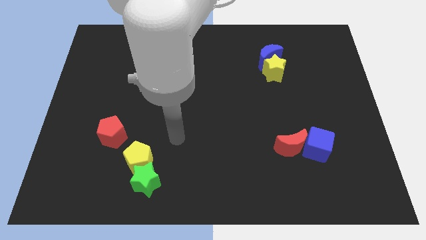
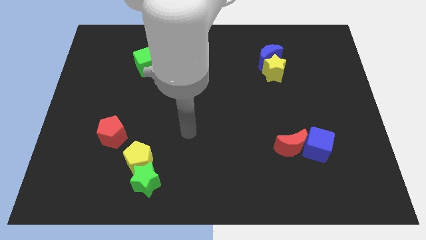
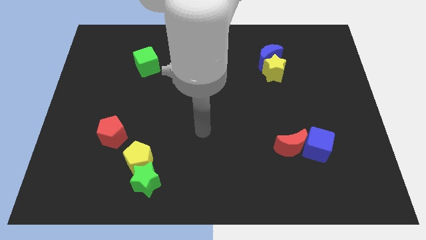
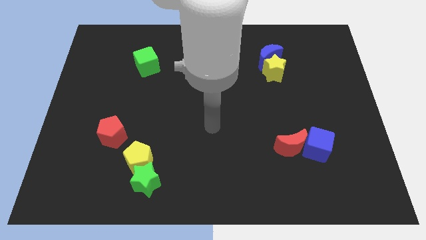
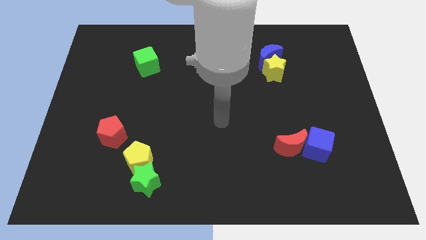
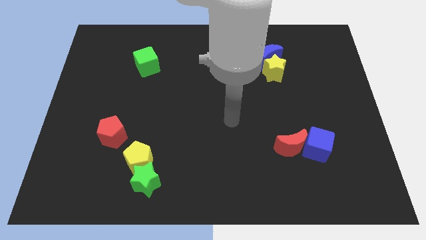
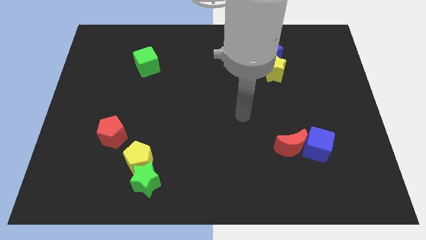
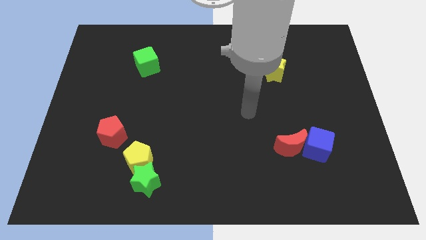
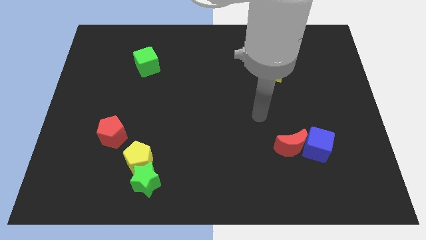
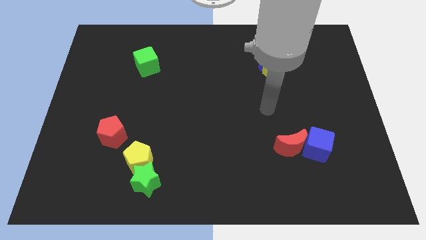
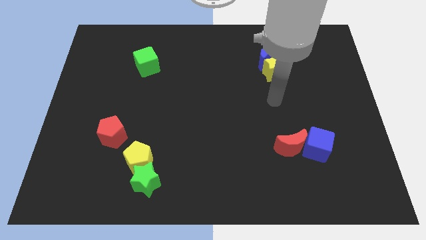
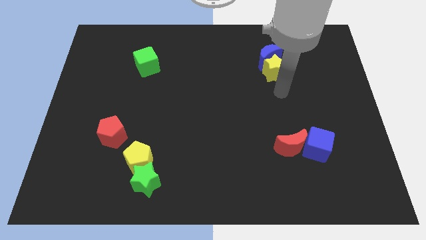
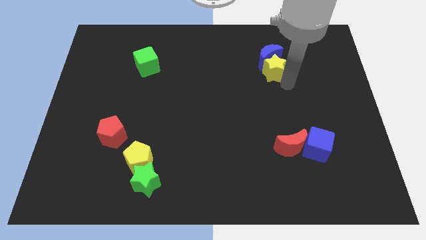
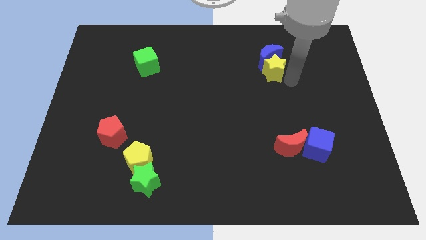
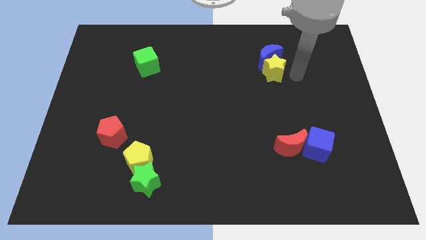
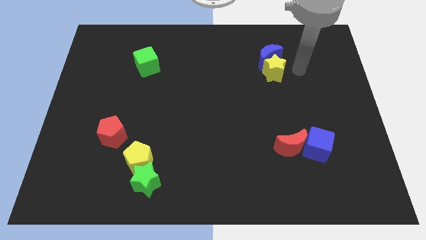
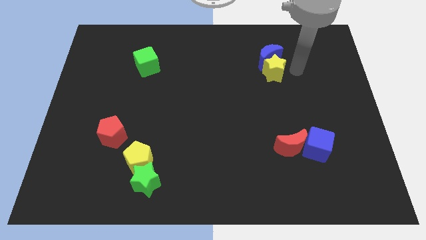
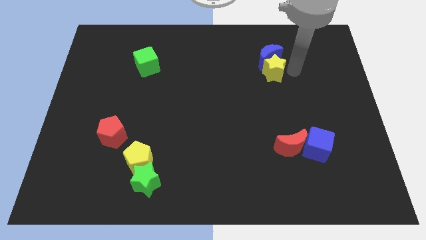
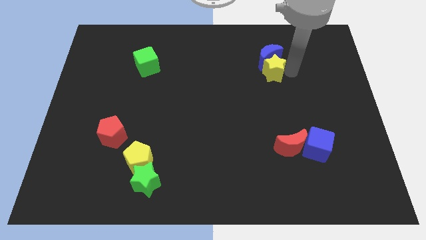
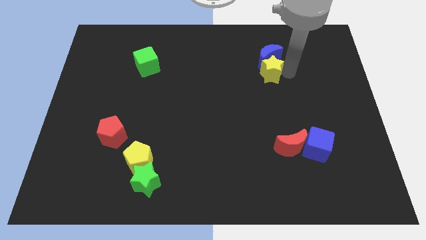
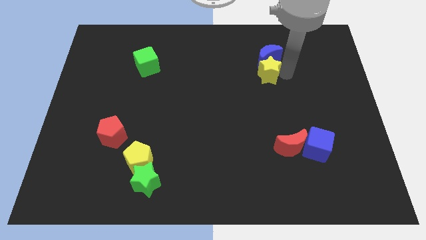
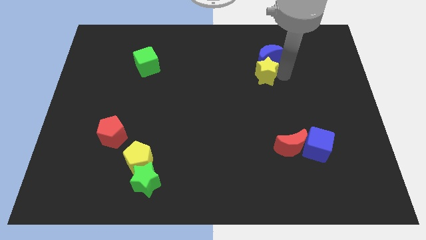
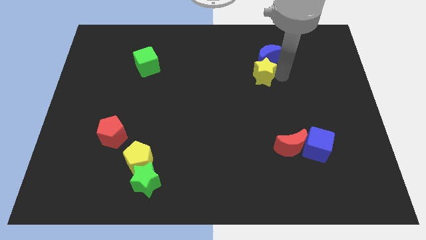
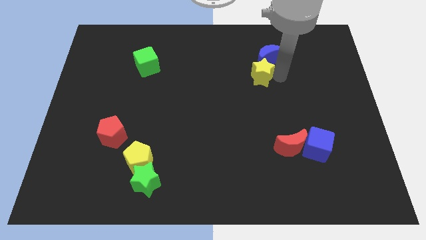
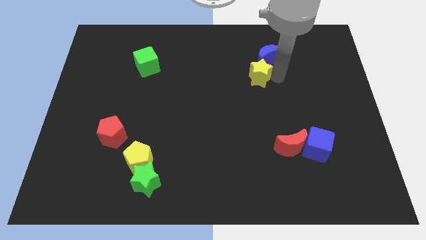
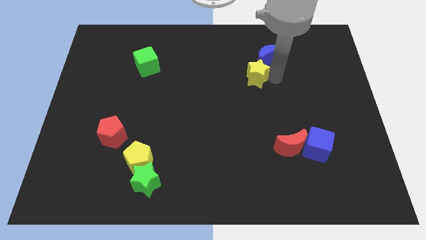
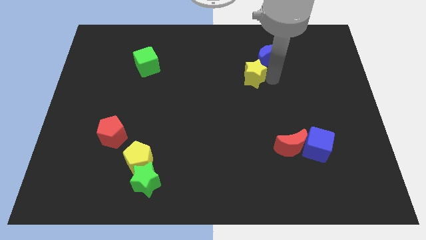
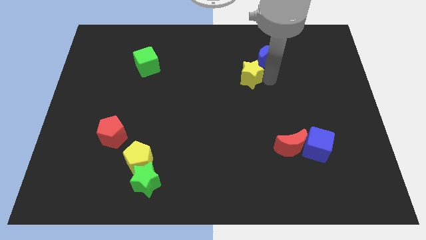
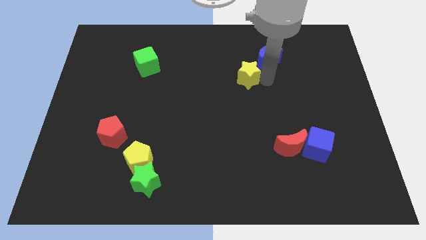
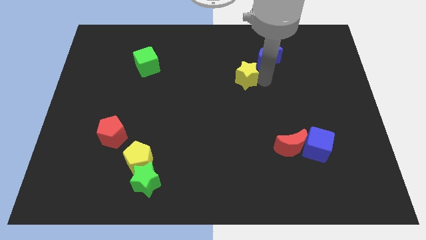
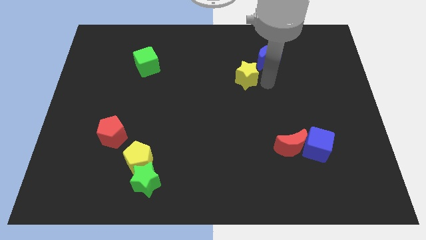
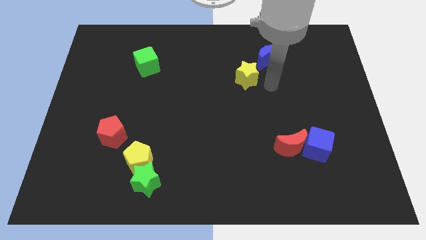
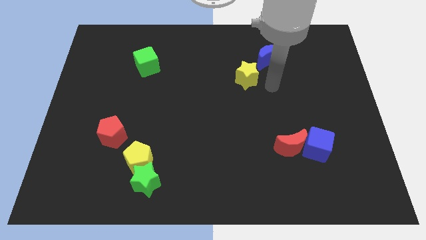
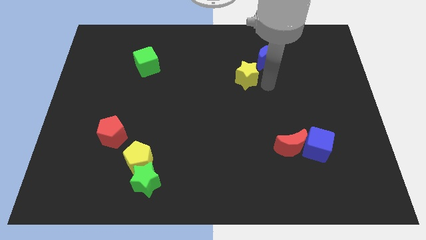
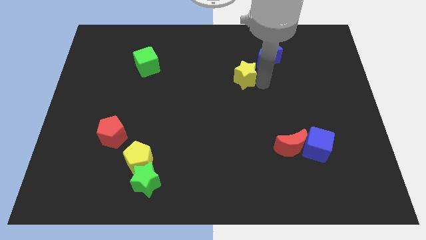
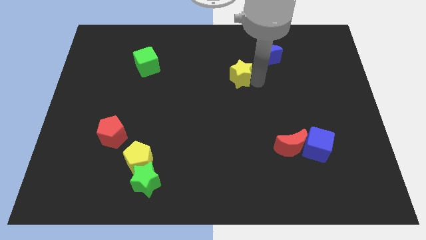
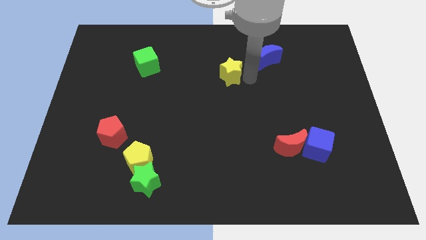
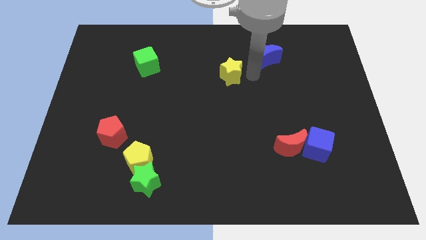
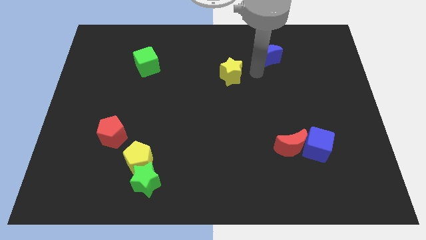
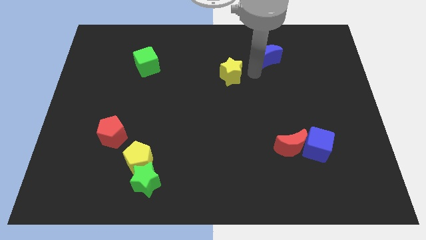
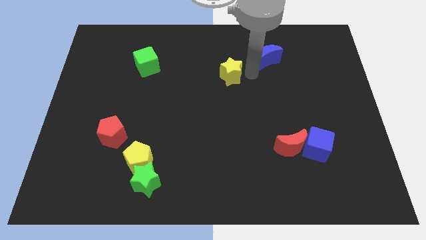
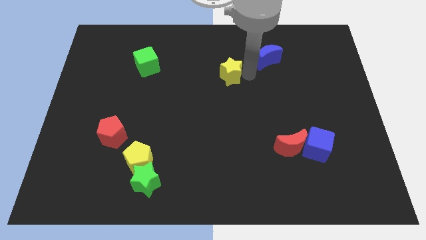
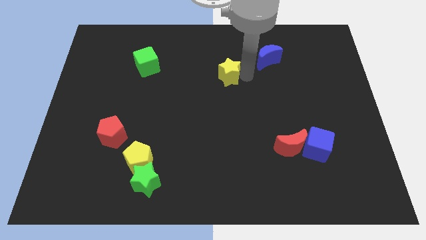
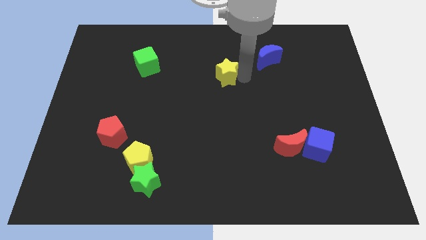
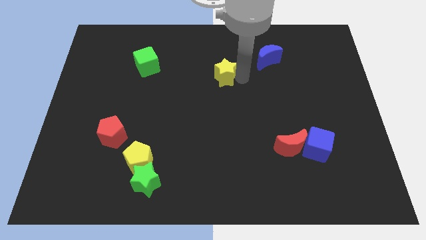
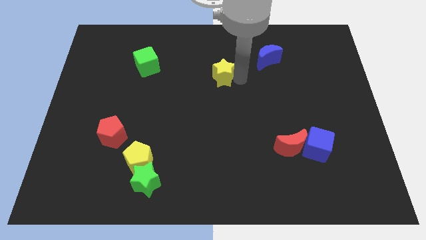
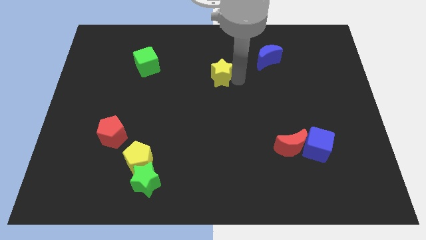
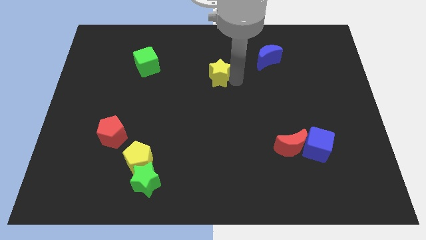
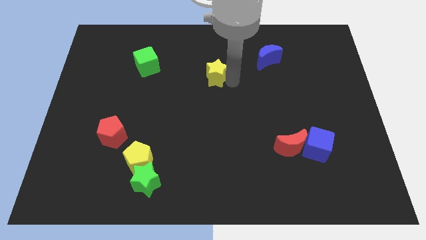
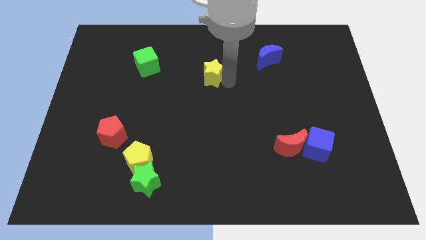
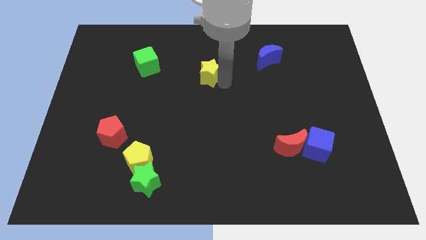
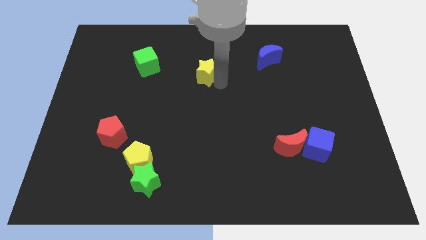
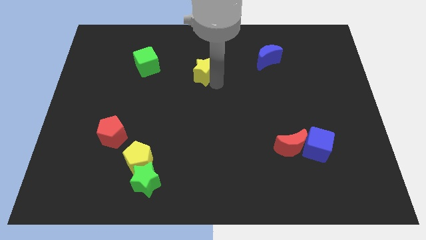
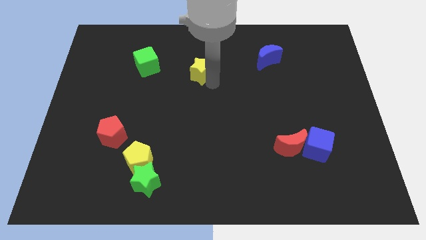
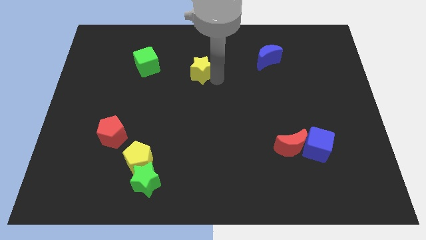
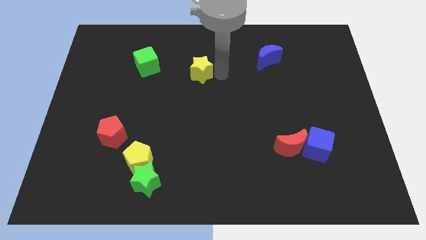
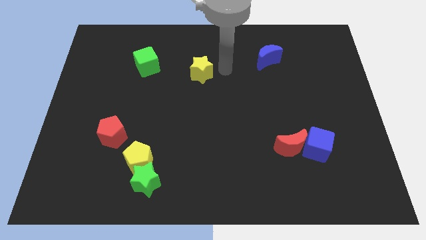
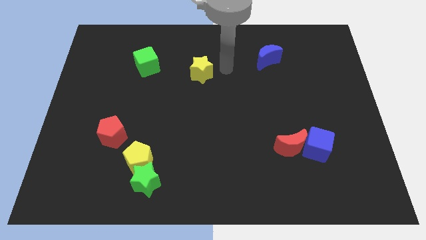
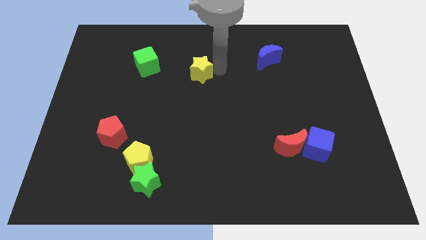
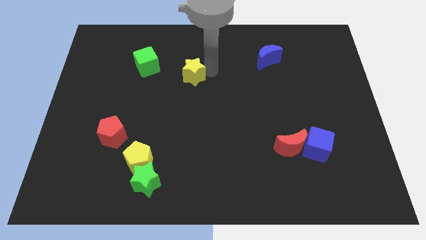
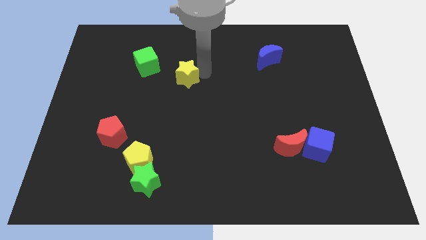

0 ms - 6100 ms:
move the yellow star to the bottom right of the green cube

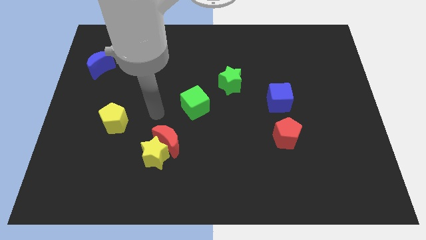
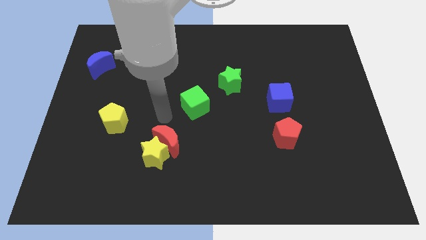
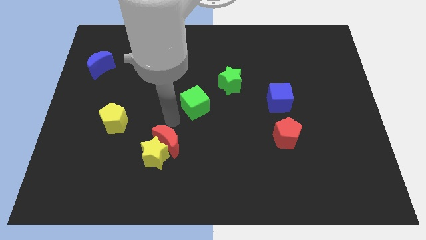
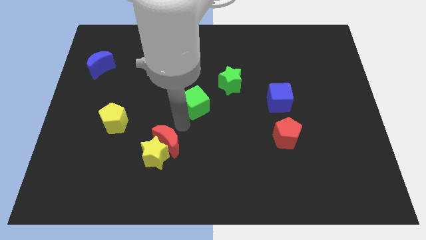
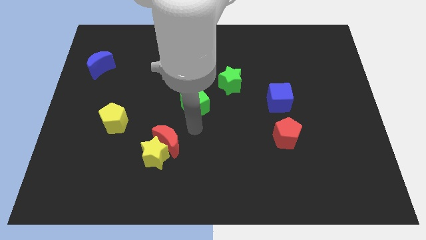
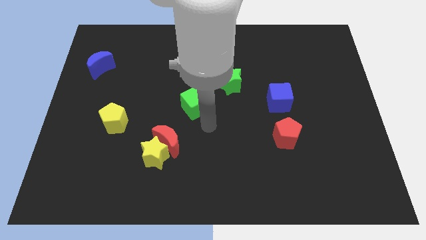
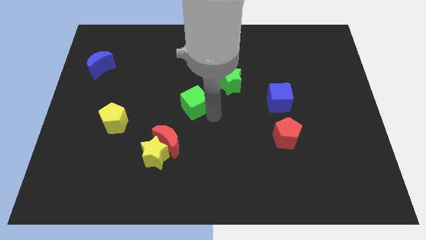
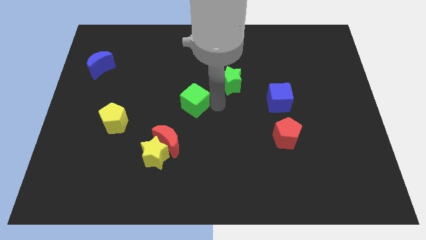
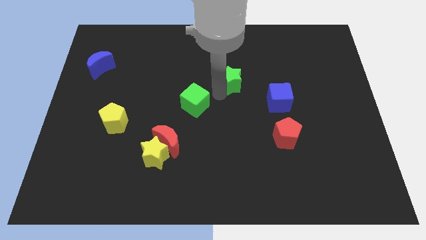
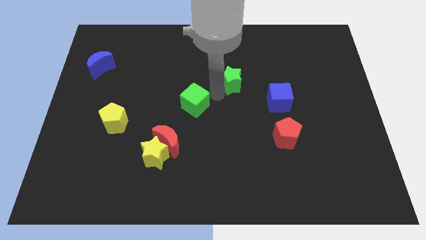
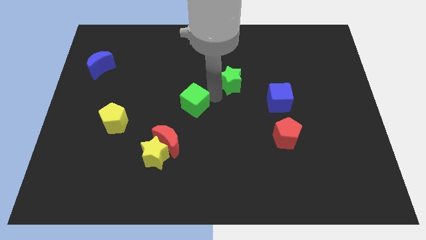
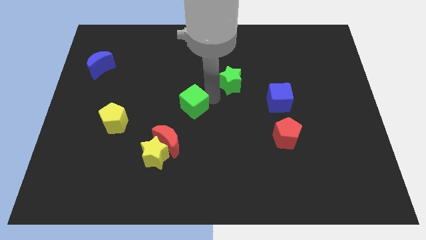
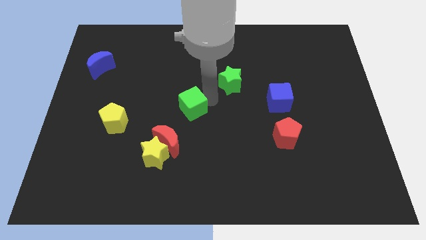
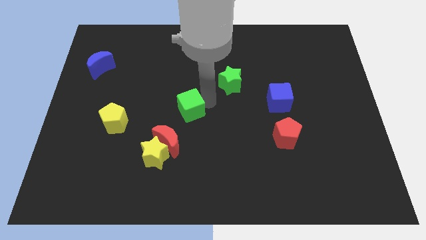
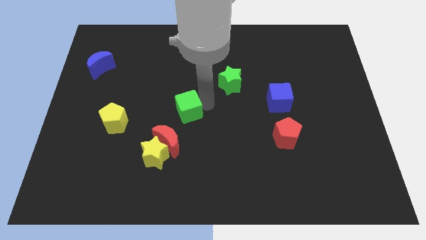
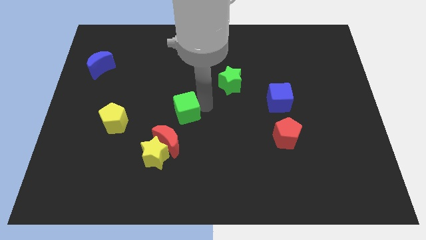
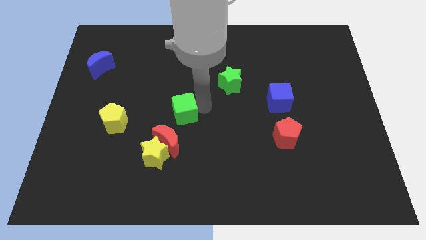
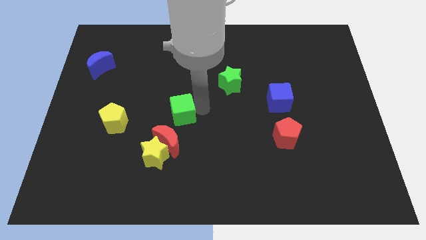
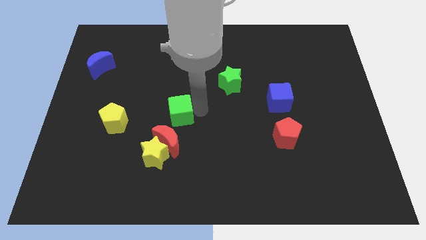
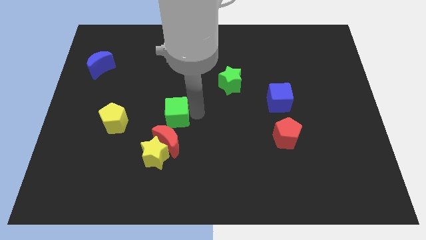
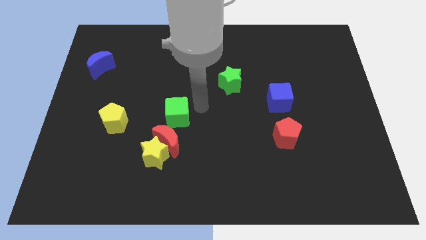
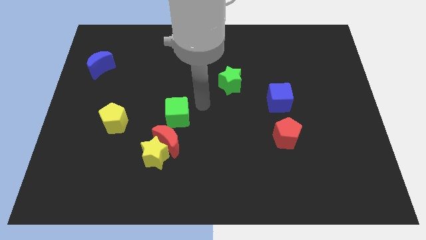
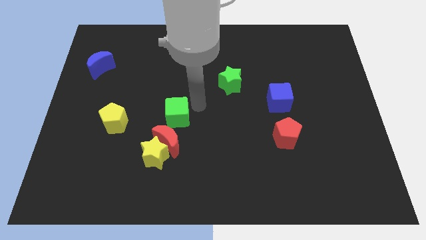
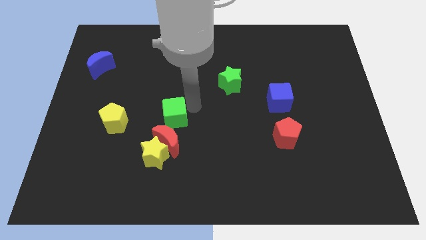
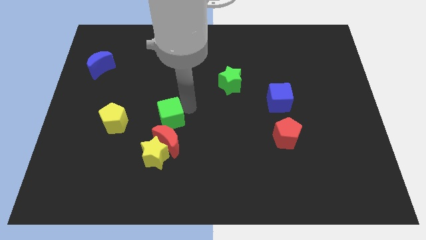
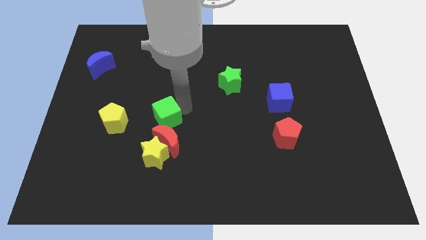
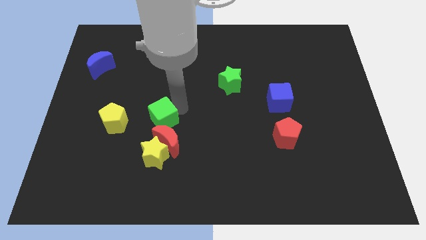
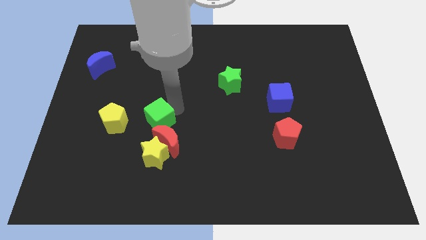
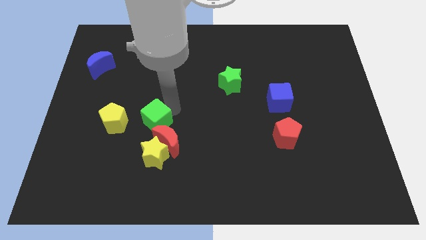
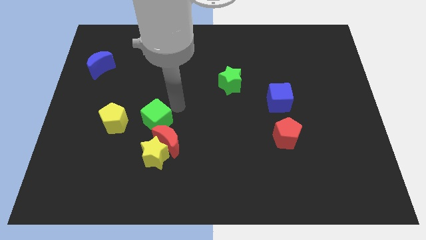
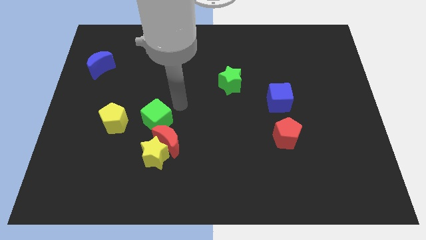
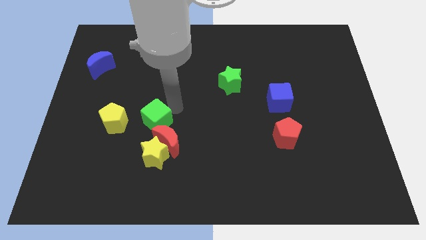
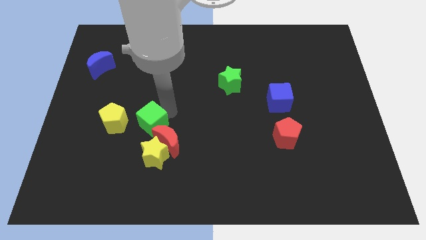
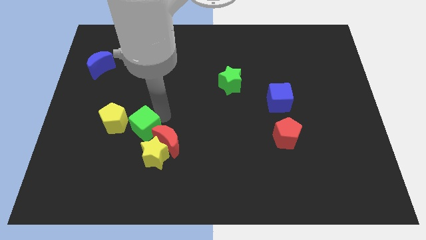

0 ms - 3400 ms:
slide the green cube to the top left of the yellow star
